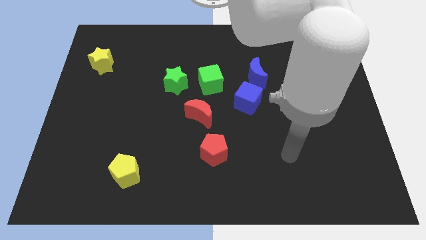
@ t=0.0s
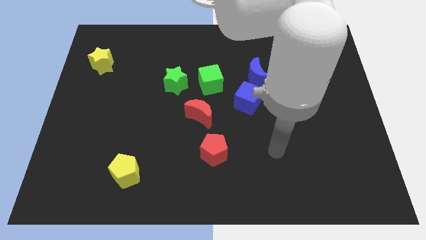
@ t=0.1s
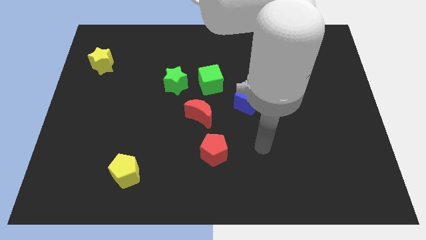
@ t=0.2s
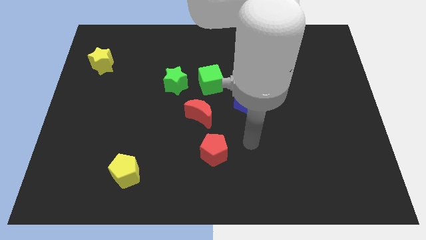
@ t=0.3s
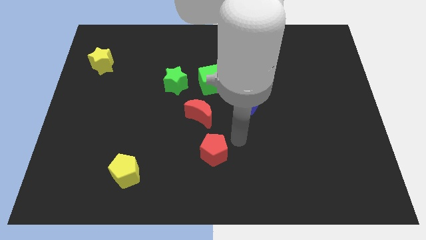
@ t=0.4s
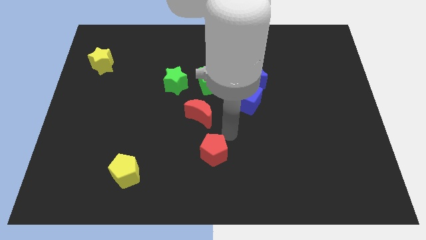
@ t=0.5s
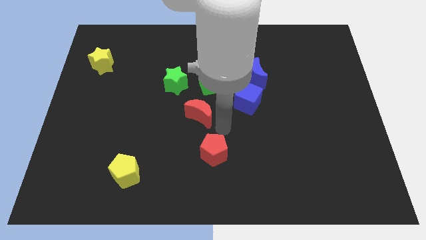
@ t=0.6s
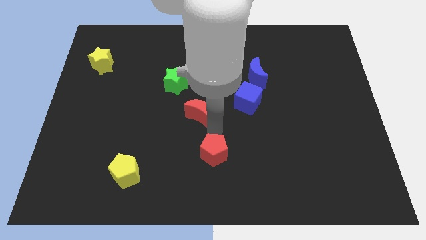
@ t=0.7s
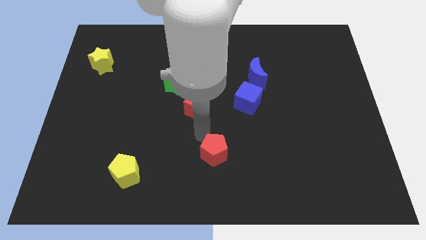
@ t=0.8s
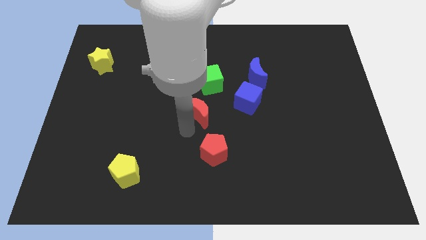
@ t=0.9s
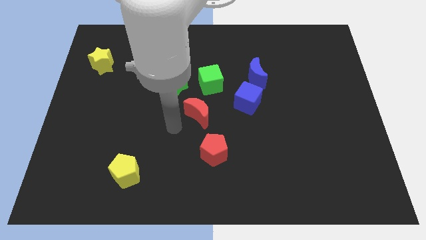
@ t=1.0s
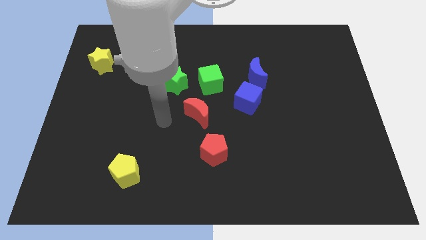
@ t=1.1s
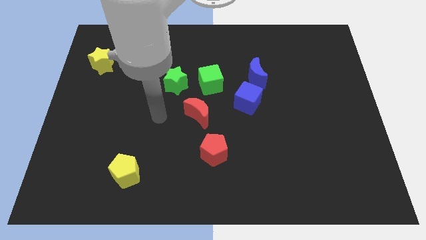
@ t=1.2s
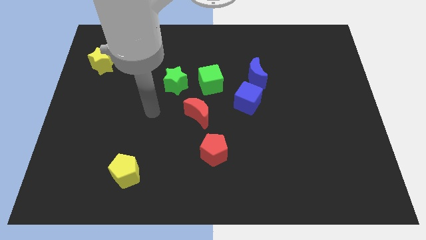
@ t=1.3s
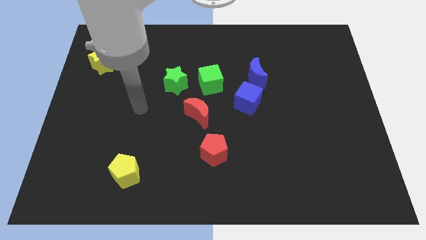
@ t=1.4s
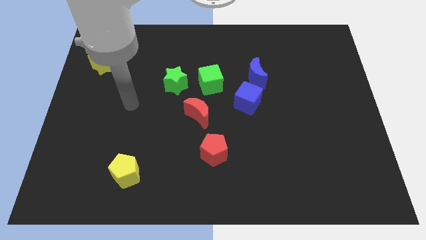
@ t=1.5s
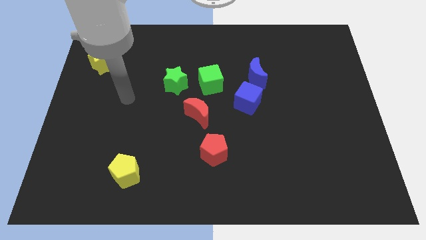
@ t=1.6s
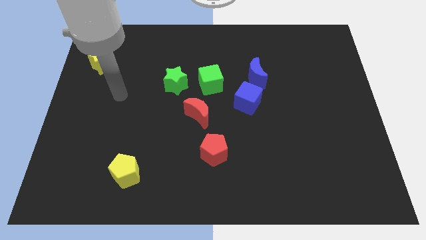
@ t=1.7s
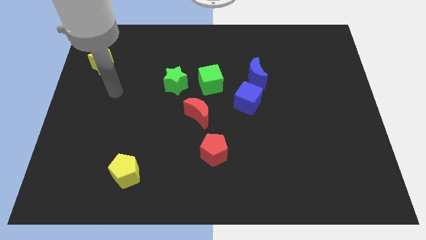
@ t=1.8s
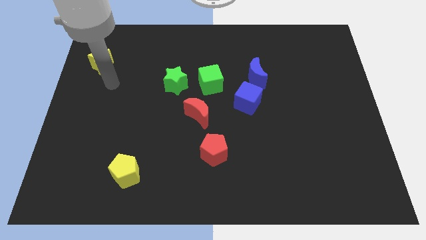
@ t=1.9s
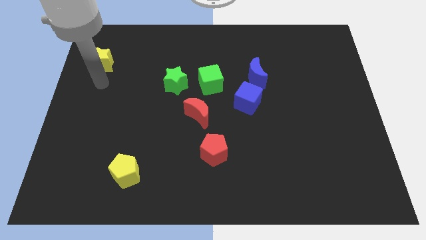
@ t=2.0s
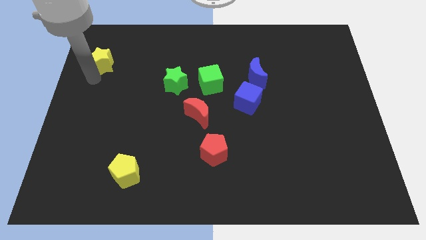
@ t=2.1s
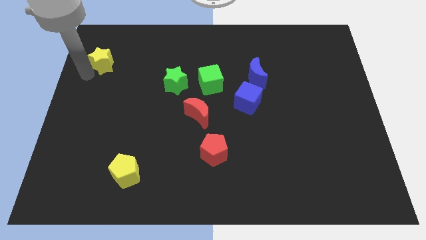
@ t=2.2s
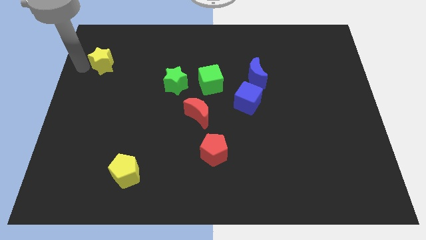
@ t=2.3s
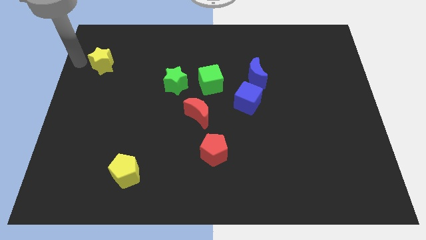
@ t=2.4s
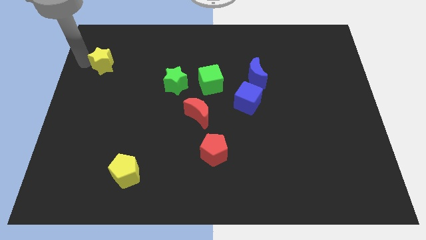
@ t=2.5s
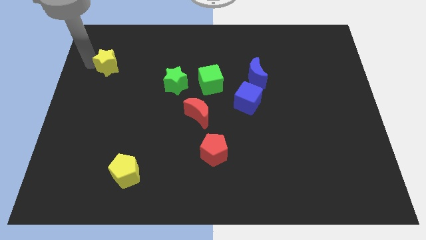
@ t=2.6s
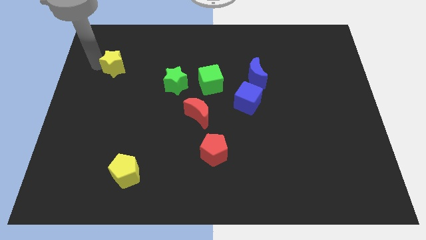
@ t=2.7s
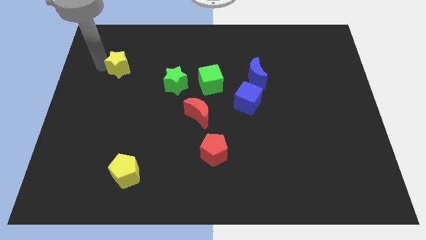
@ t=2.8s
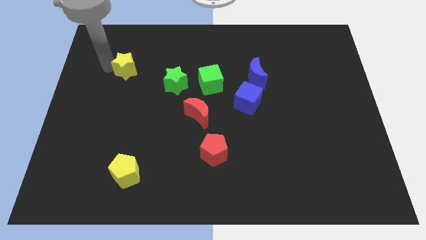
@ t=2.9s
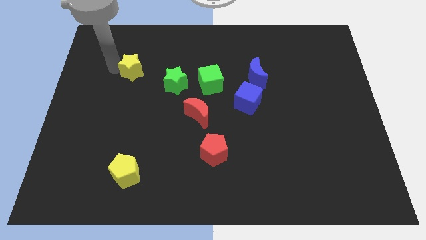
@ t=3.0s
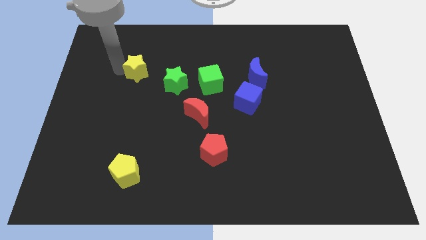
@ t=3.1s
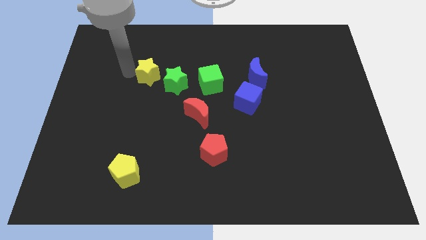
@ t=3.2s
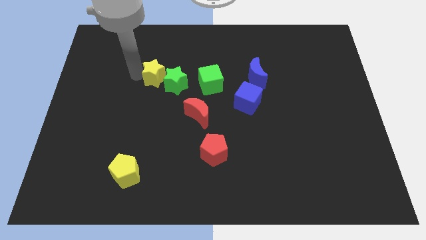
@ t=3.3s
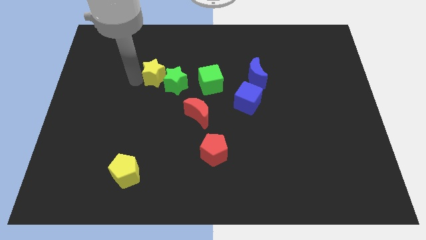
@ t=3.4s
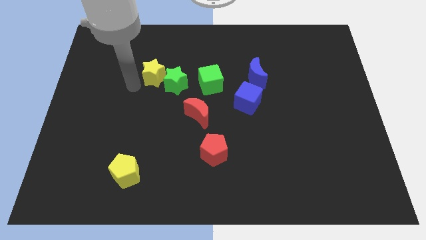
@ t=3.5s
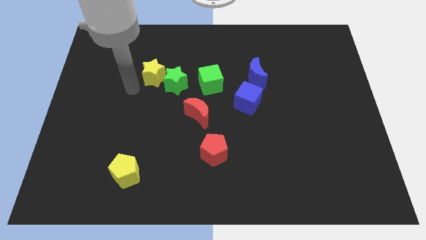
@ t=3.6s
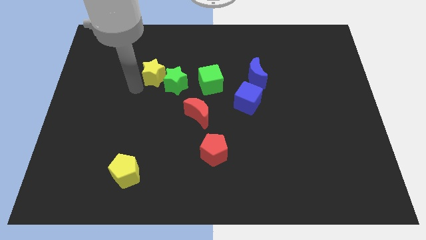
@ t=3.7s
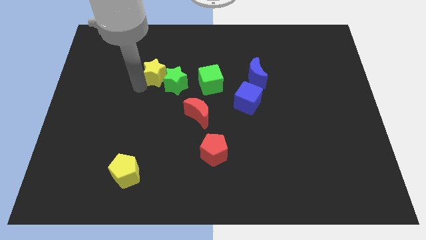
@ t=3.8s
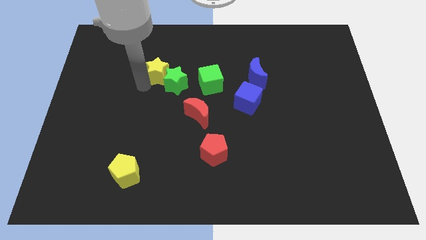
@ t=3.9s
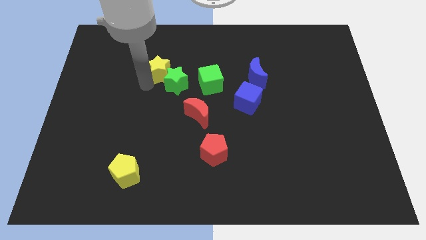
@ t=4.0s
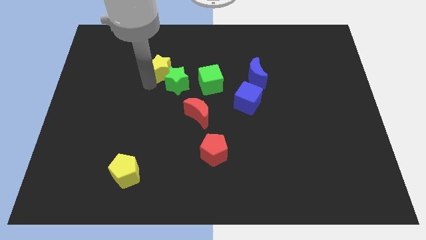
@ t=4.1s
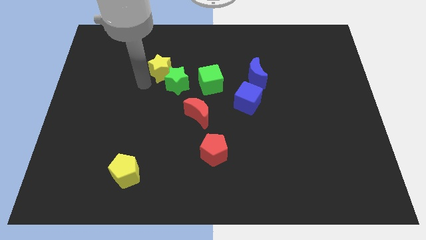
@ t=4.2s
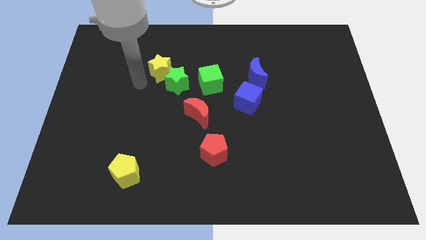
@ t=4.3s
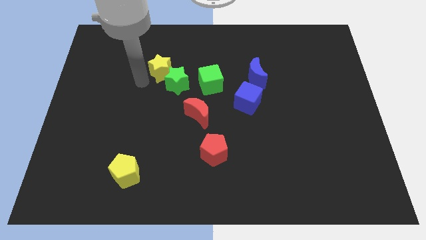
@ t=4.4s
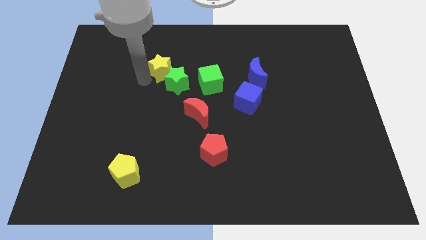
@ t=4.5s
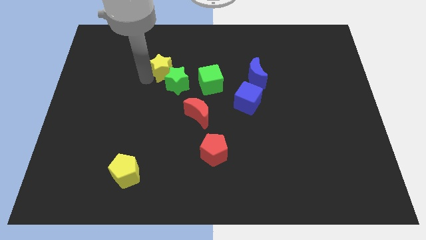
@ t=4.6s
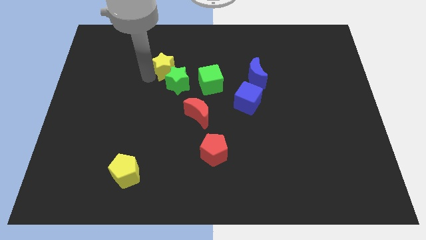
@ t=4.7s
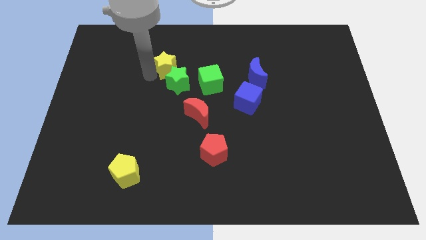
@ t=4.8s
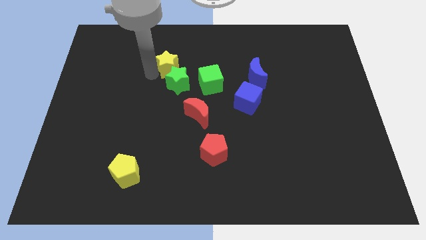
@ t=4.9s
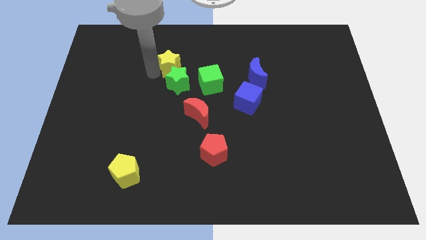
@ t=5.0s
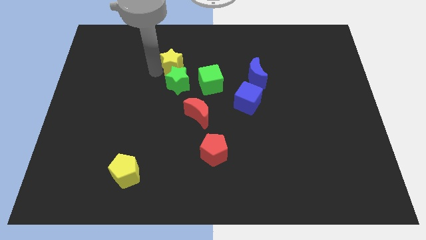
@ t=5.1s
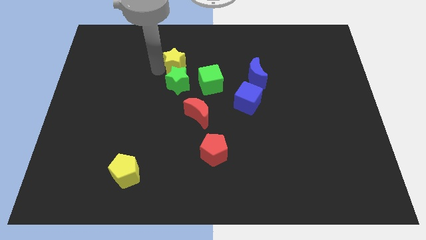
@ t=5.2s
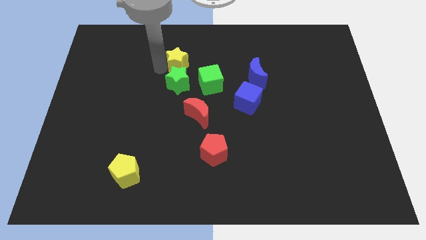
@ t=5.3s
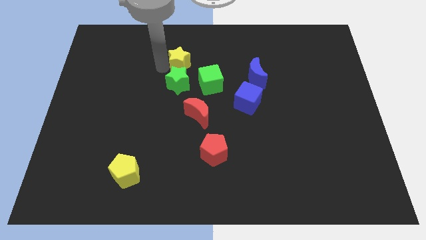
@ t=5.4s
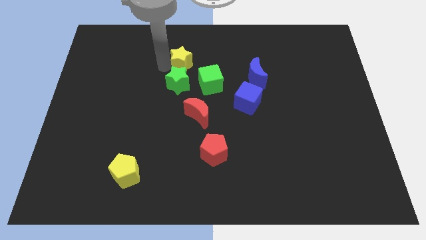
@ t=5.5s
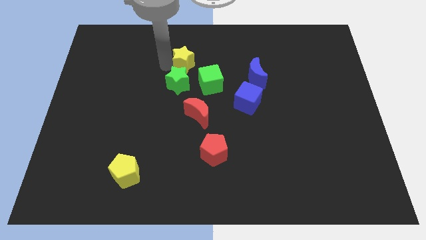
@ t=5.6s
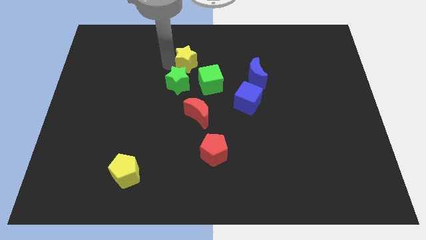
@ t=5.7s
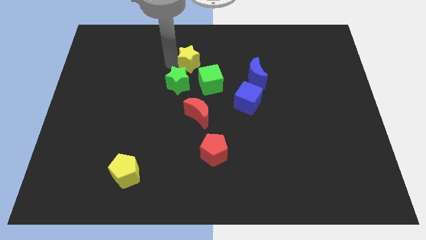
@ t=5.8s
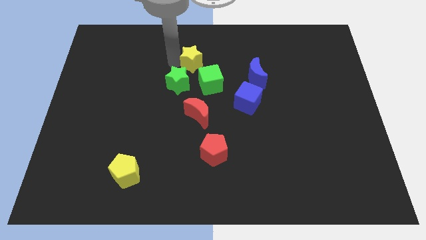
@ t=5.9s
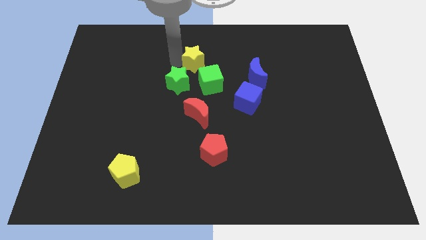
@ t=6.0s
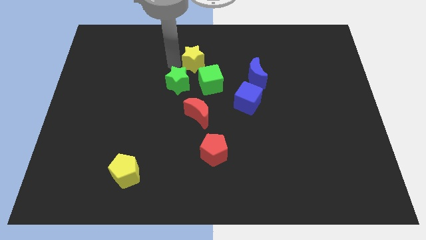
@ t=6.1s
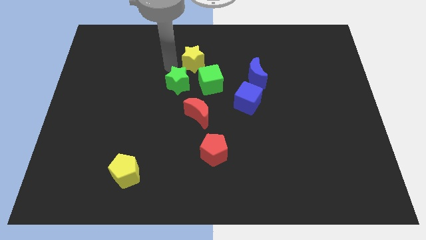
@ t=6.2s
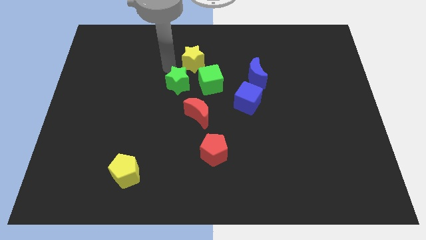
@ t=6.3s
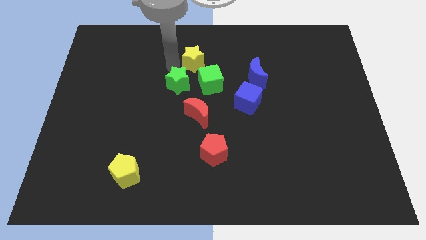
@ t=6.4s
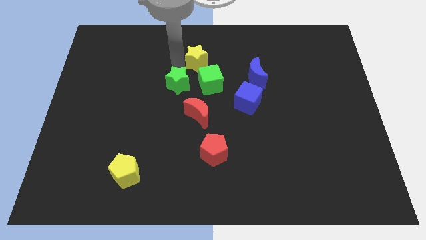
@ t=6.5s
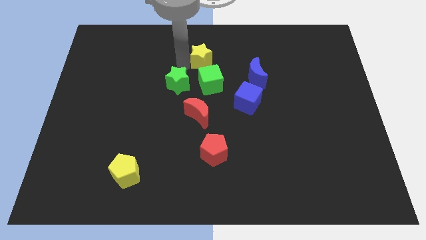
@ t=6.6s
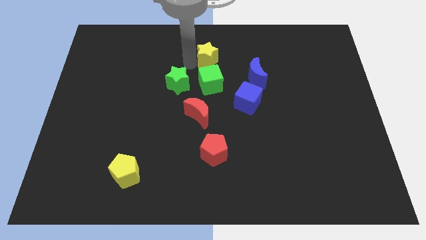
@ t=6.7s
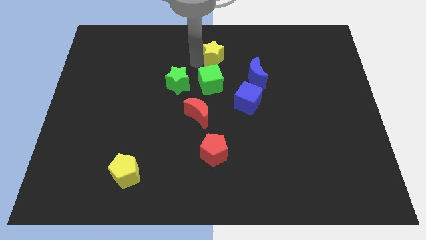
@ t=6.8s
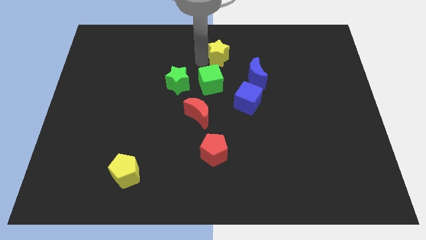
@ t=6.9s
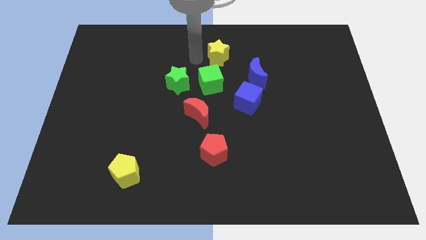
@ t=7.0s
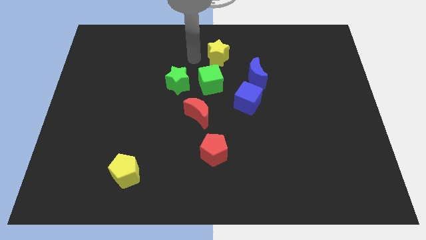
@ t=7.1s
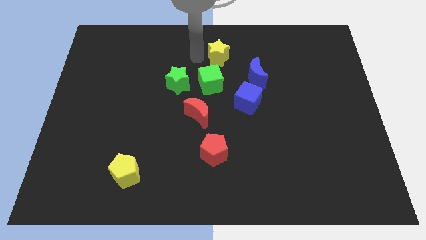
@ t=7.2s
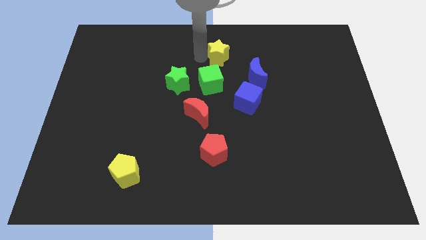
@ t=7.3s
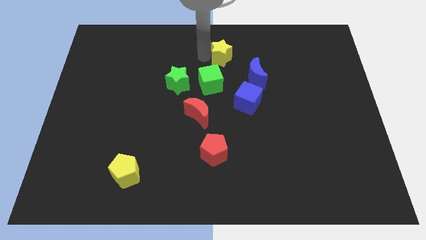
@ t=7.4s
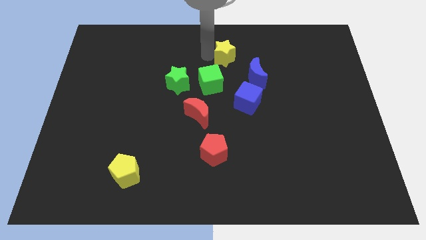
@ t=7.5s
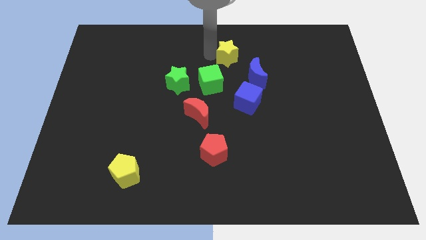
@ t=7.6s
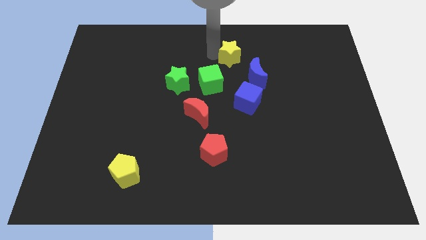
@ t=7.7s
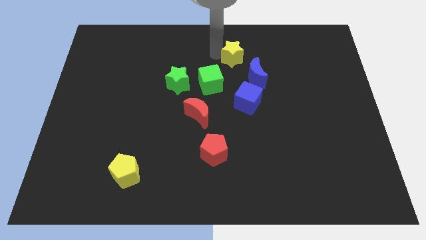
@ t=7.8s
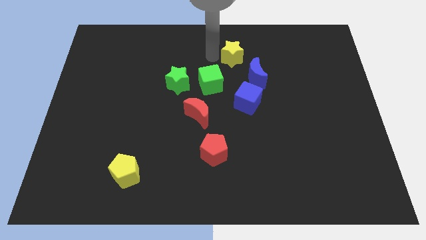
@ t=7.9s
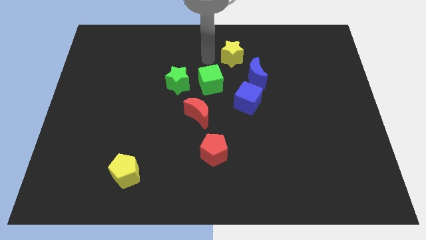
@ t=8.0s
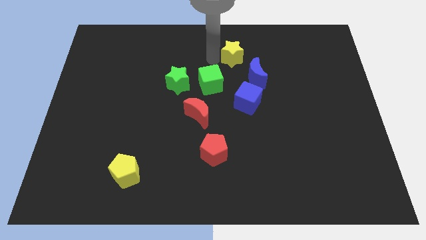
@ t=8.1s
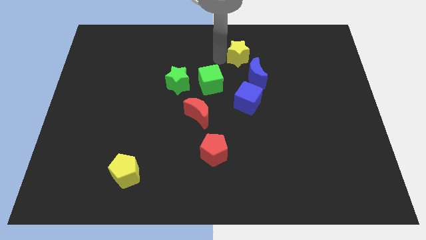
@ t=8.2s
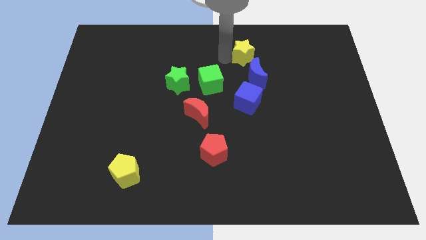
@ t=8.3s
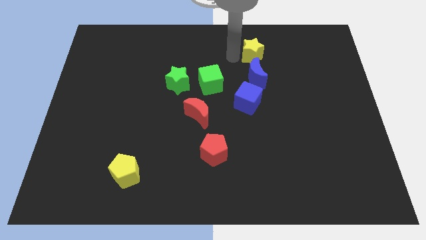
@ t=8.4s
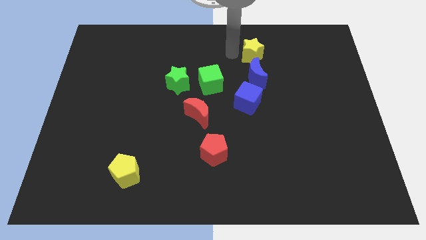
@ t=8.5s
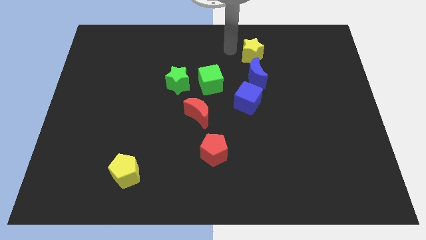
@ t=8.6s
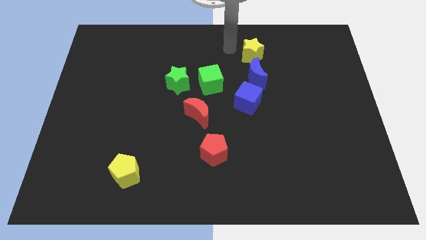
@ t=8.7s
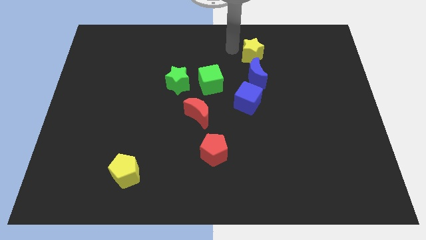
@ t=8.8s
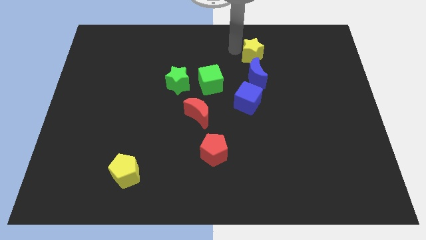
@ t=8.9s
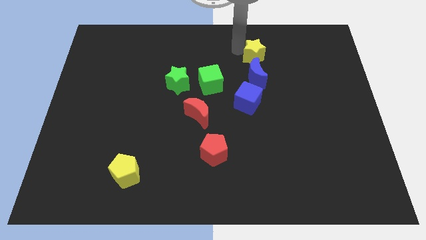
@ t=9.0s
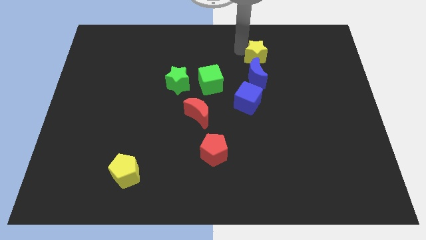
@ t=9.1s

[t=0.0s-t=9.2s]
slide the yellow star diagonally up and to the right of the blue moon
